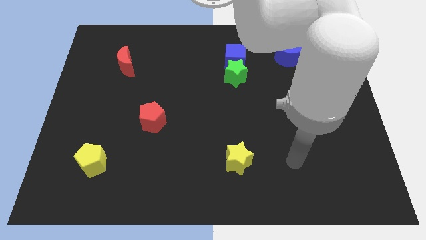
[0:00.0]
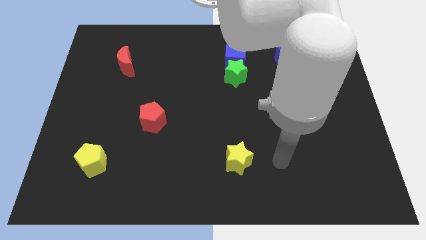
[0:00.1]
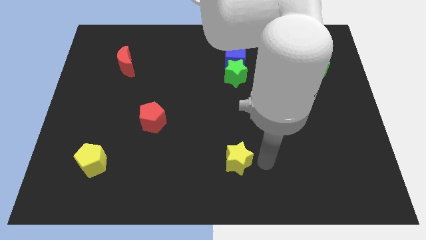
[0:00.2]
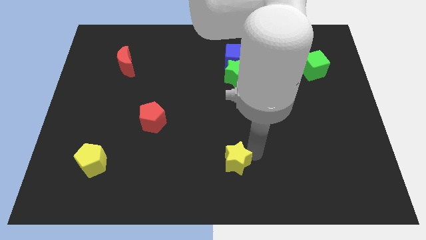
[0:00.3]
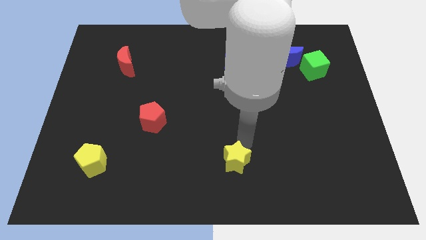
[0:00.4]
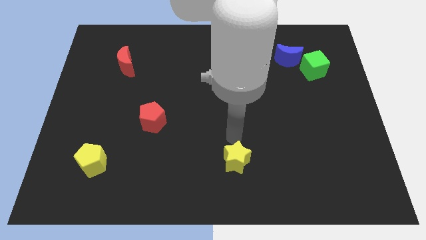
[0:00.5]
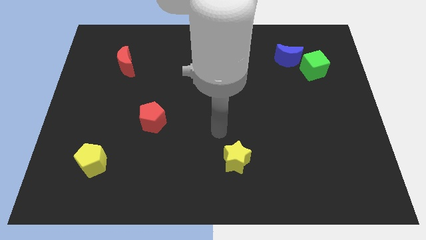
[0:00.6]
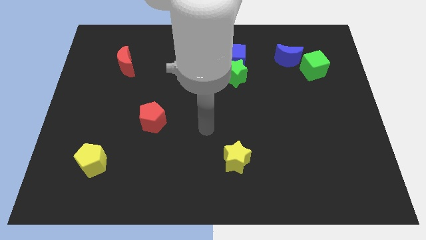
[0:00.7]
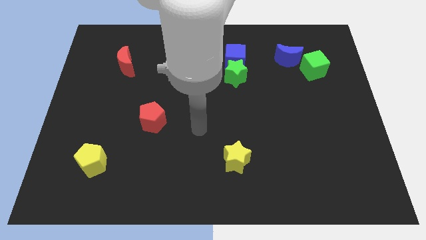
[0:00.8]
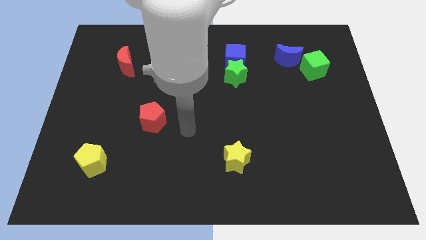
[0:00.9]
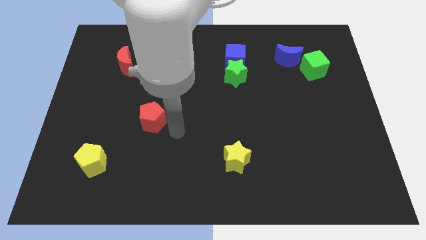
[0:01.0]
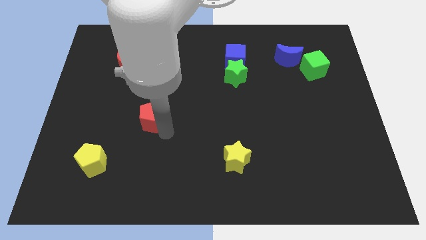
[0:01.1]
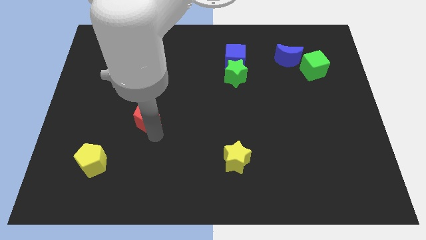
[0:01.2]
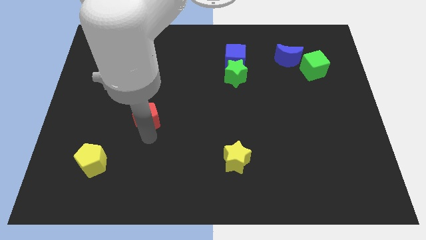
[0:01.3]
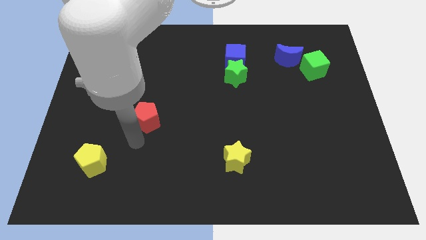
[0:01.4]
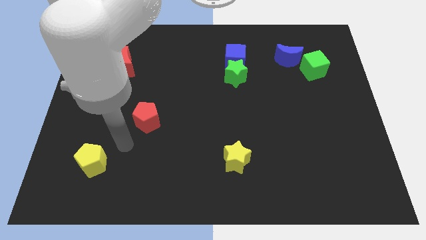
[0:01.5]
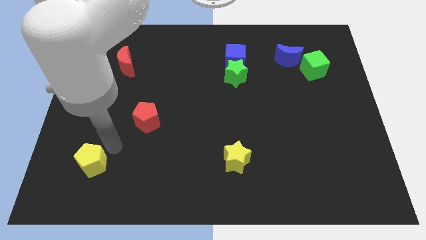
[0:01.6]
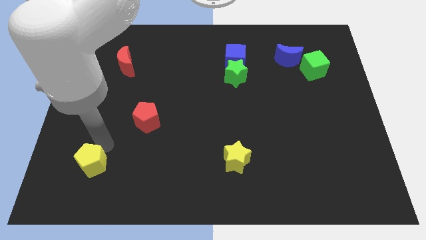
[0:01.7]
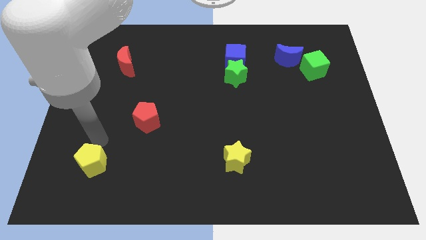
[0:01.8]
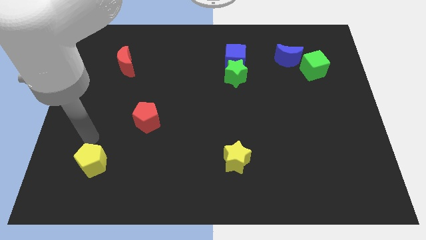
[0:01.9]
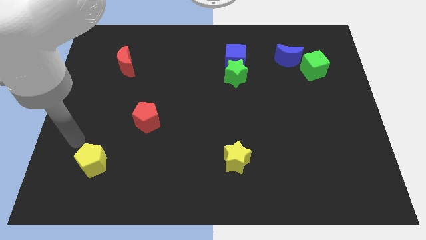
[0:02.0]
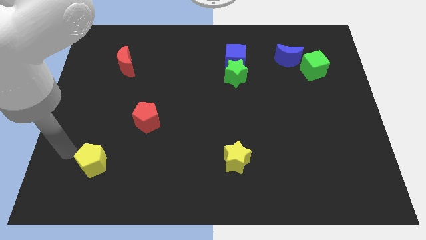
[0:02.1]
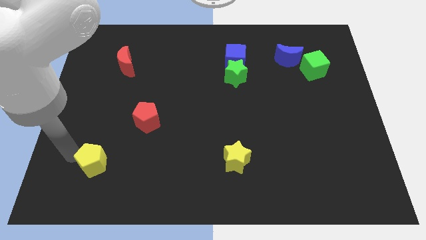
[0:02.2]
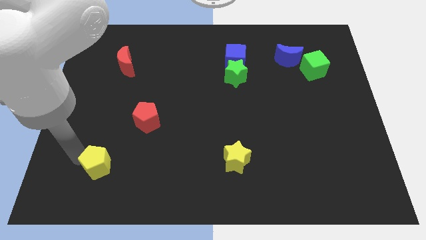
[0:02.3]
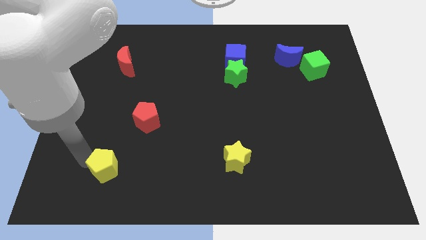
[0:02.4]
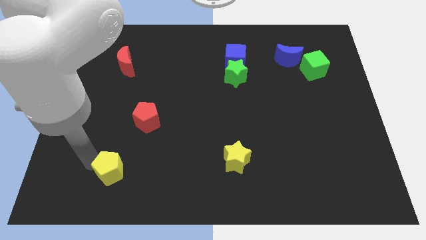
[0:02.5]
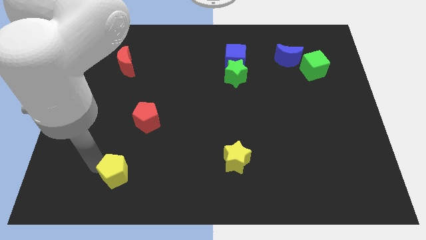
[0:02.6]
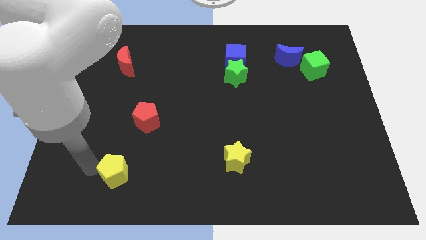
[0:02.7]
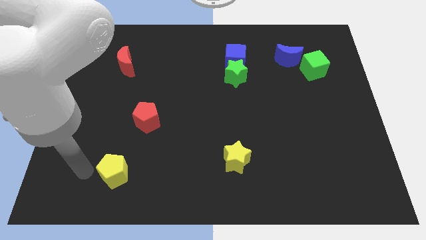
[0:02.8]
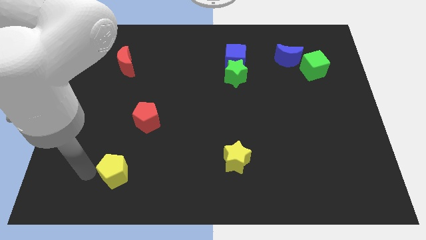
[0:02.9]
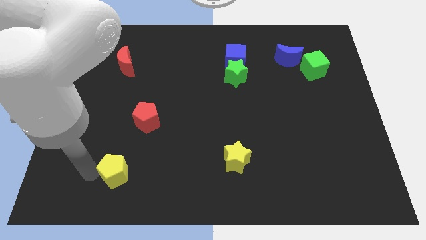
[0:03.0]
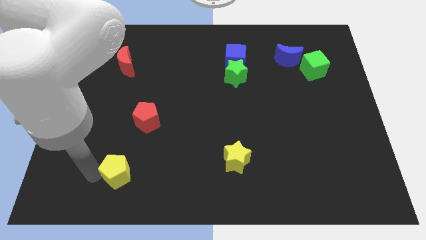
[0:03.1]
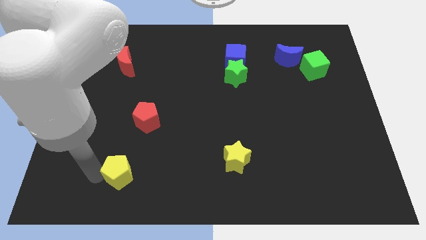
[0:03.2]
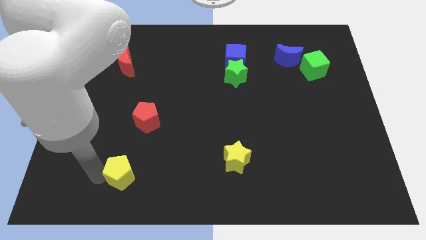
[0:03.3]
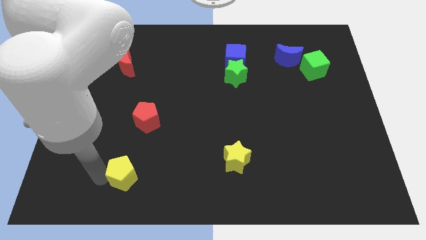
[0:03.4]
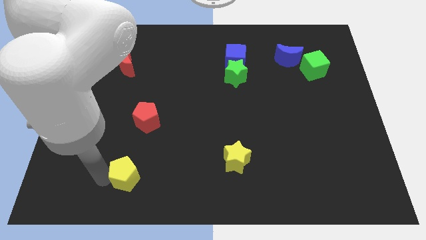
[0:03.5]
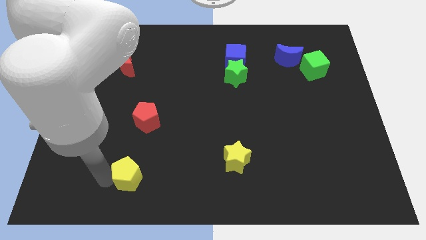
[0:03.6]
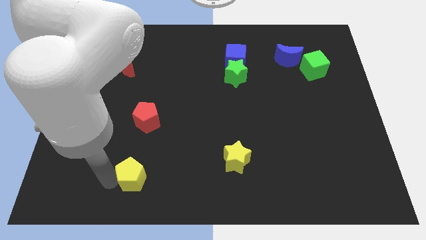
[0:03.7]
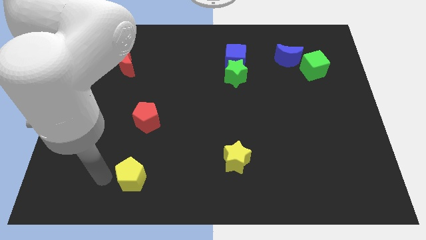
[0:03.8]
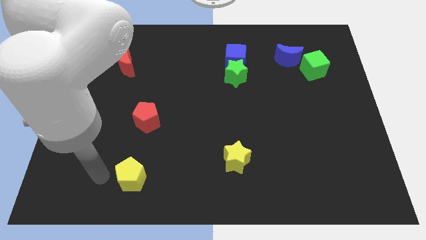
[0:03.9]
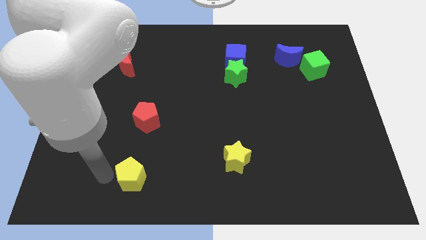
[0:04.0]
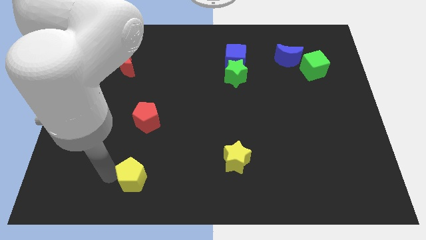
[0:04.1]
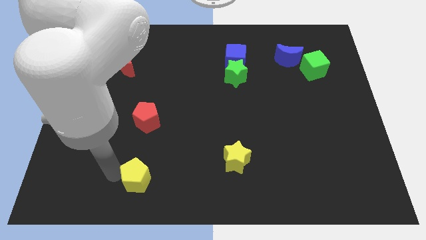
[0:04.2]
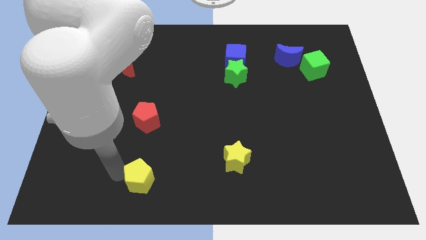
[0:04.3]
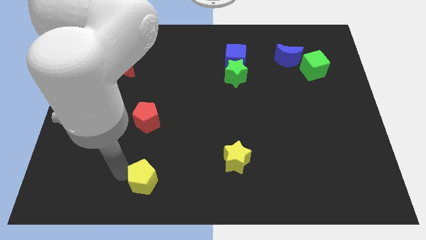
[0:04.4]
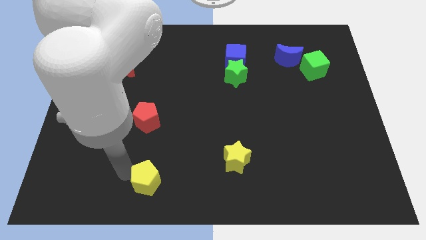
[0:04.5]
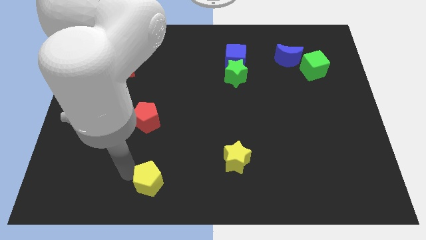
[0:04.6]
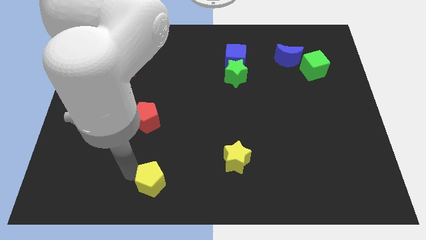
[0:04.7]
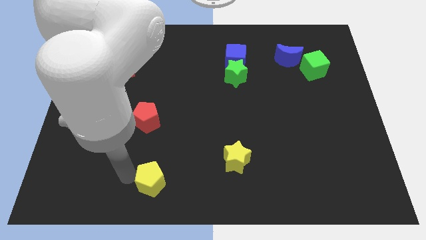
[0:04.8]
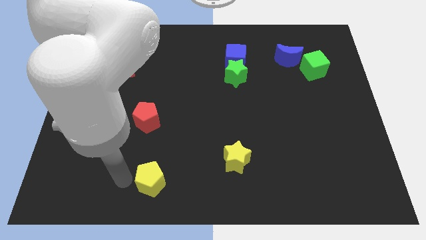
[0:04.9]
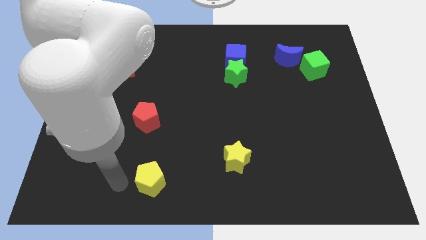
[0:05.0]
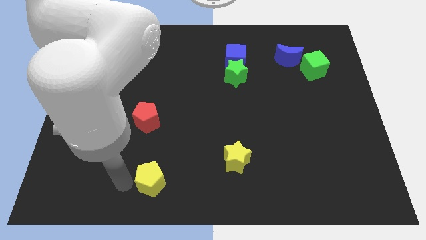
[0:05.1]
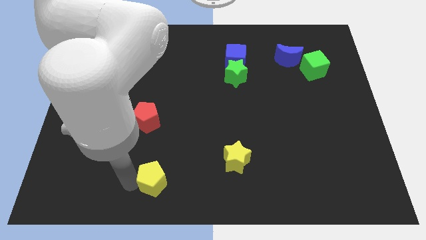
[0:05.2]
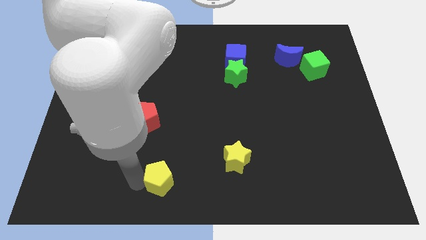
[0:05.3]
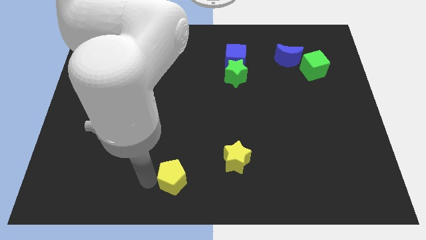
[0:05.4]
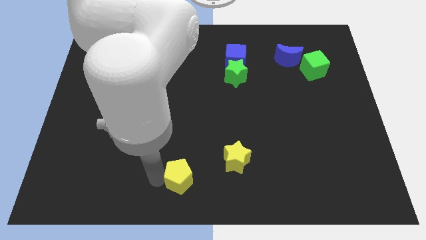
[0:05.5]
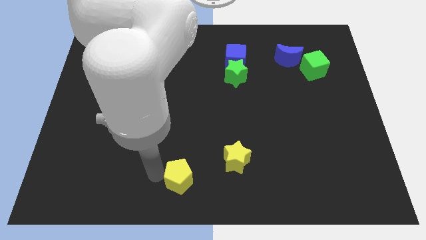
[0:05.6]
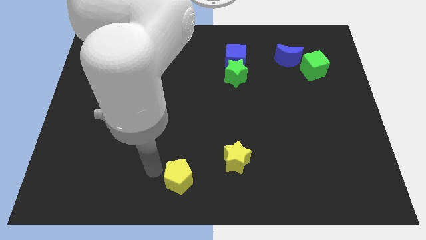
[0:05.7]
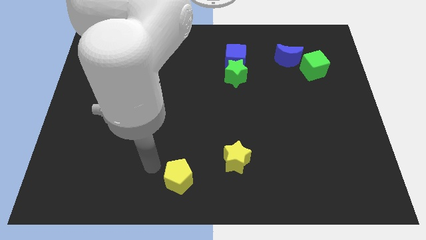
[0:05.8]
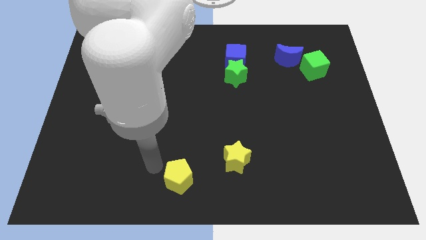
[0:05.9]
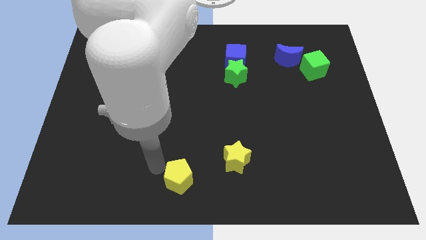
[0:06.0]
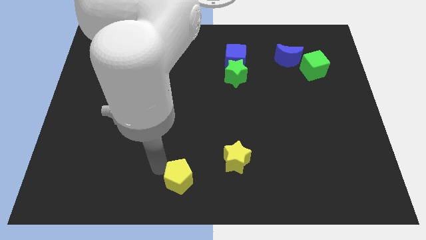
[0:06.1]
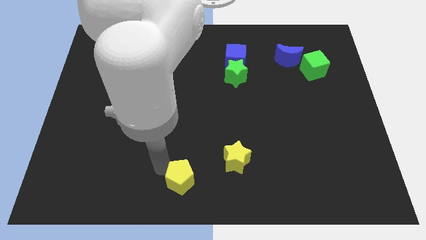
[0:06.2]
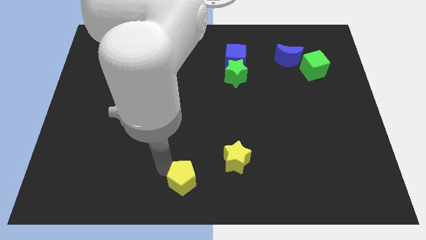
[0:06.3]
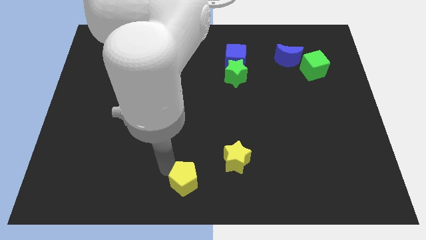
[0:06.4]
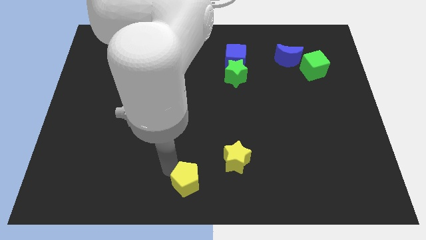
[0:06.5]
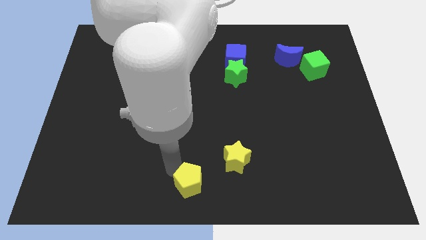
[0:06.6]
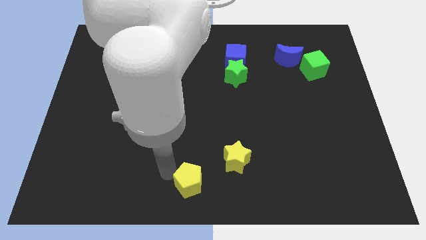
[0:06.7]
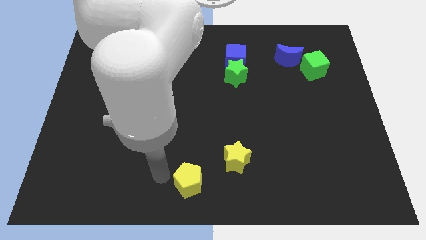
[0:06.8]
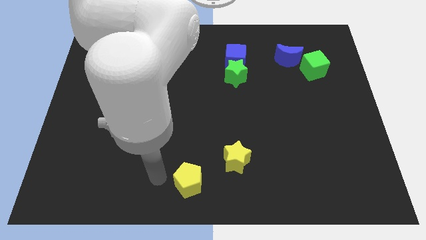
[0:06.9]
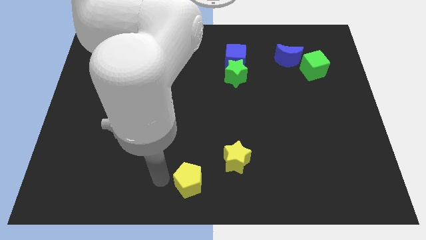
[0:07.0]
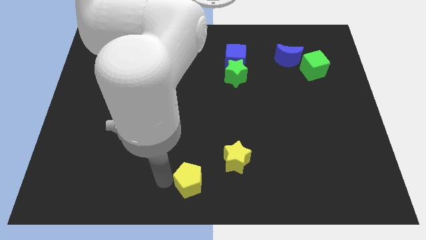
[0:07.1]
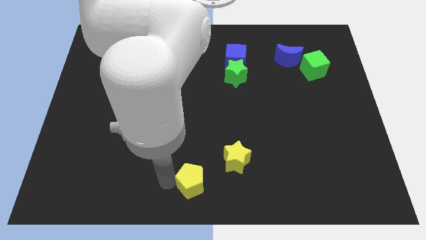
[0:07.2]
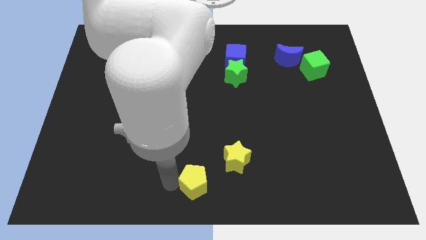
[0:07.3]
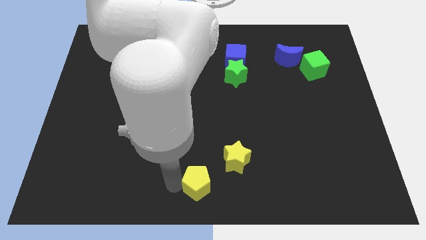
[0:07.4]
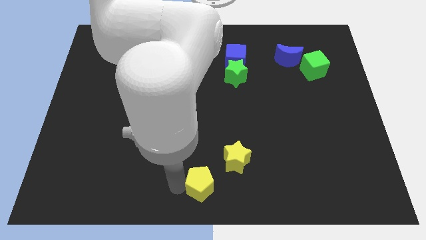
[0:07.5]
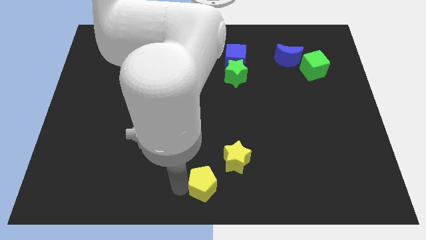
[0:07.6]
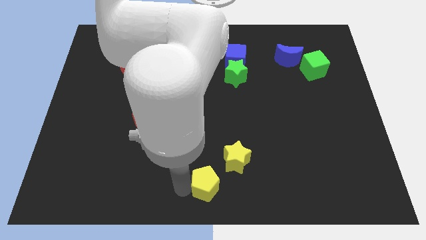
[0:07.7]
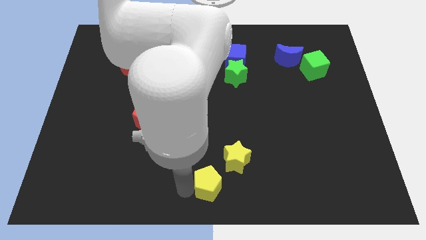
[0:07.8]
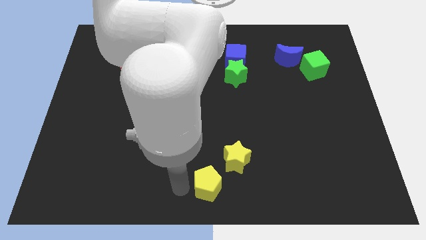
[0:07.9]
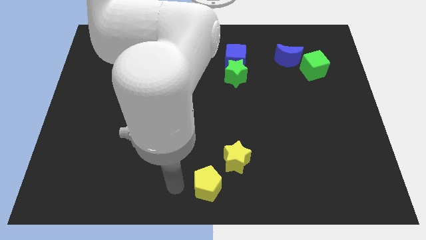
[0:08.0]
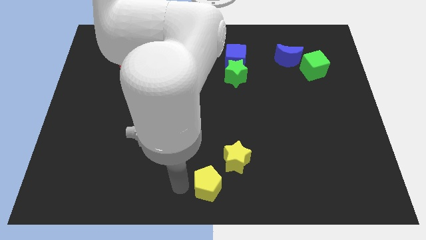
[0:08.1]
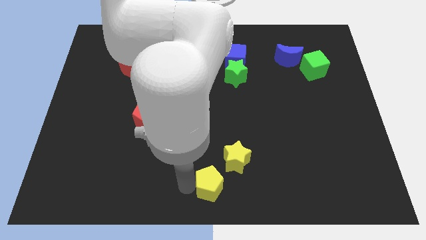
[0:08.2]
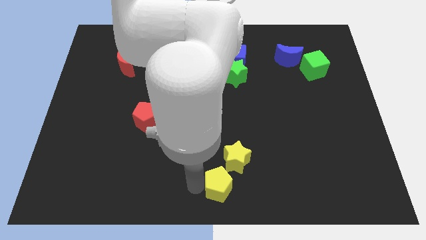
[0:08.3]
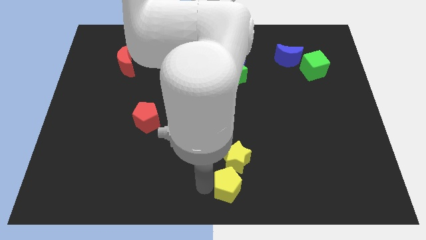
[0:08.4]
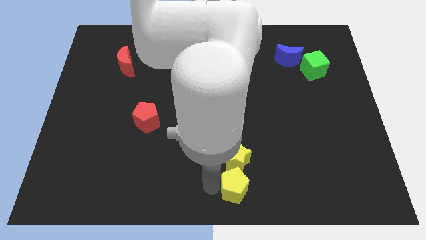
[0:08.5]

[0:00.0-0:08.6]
slide the yellow pentagon to the bottom right side of the yellow star
